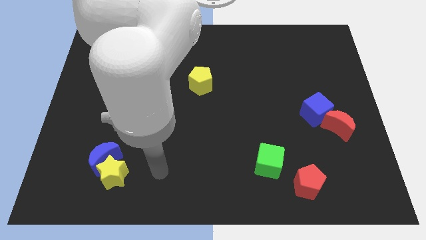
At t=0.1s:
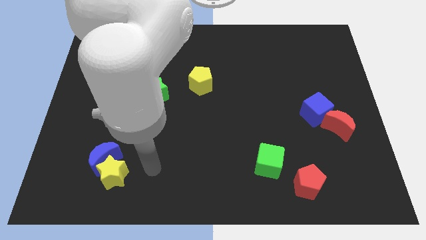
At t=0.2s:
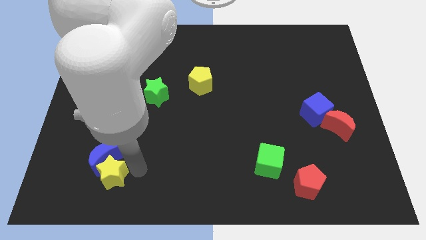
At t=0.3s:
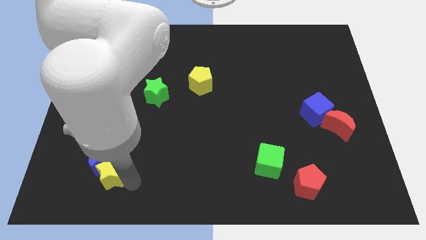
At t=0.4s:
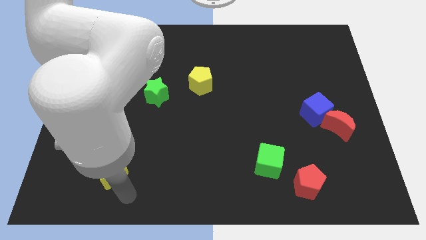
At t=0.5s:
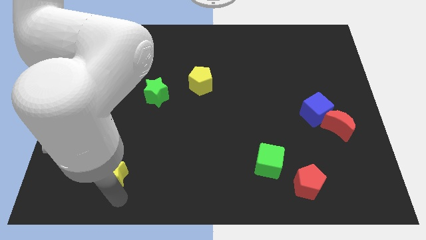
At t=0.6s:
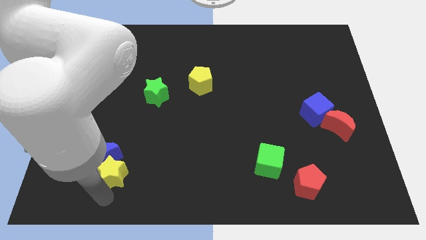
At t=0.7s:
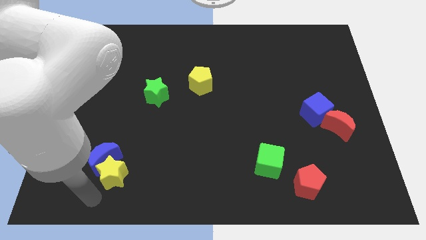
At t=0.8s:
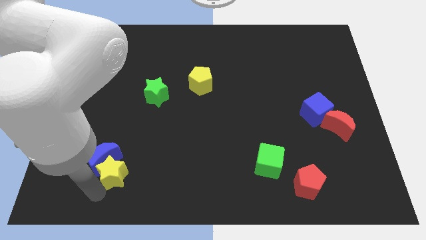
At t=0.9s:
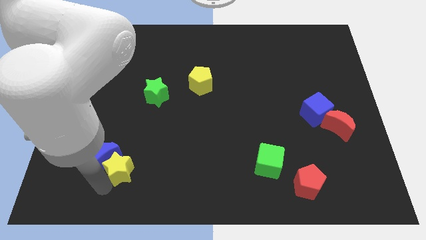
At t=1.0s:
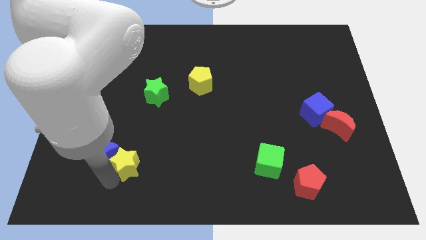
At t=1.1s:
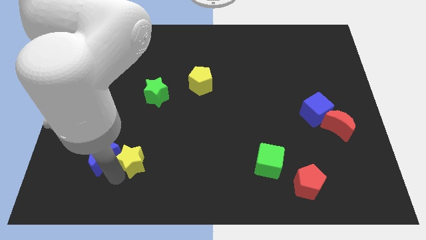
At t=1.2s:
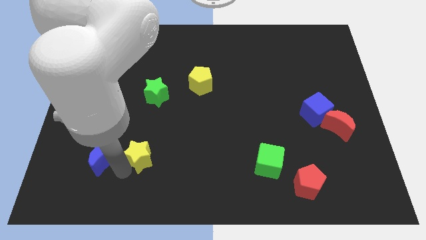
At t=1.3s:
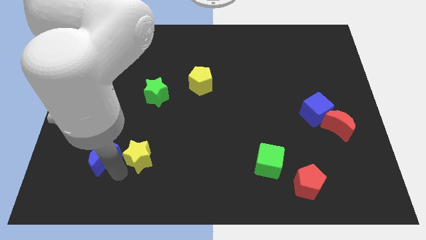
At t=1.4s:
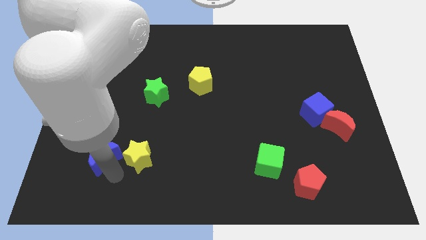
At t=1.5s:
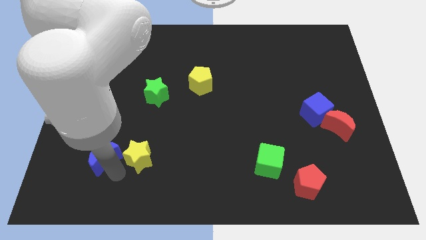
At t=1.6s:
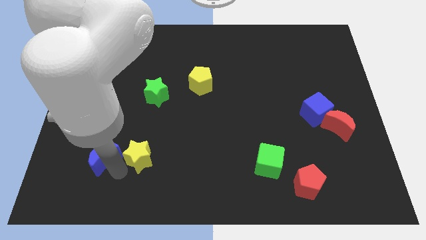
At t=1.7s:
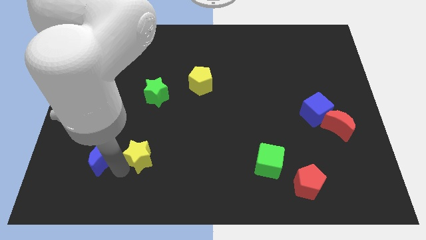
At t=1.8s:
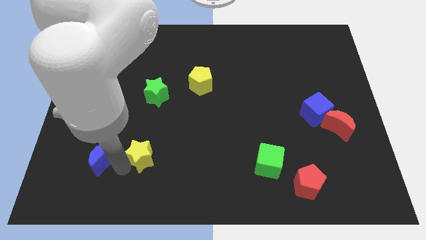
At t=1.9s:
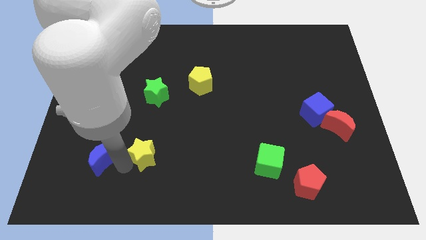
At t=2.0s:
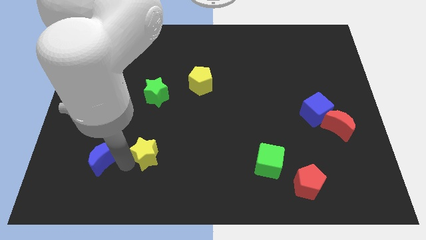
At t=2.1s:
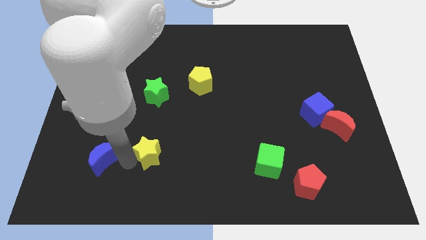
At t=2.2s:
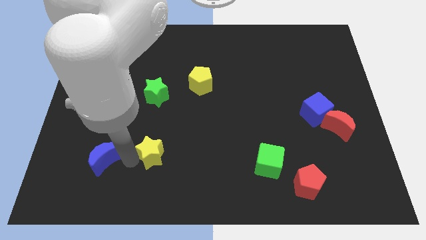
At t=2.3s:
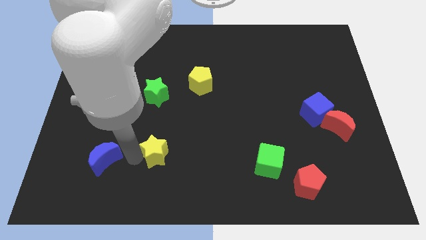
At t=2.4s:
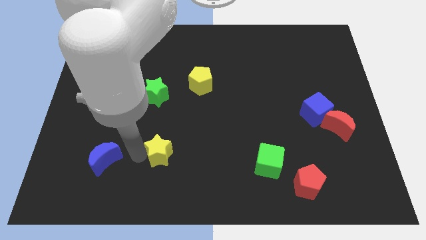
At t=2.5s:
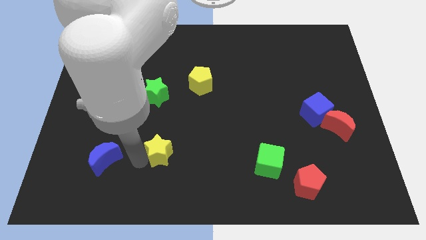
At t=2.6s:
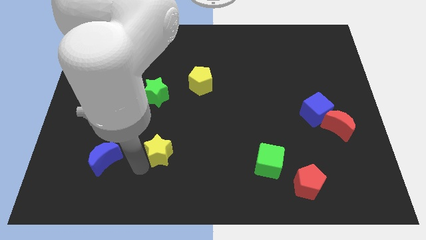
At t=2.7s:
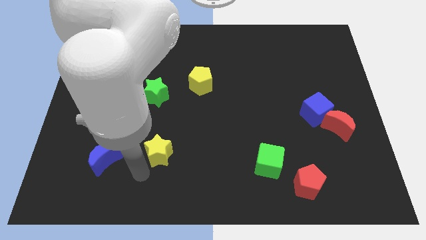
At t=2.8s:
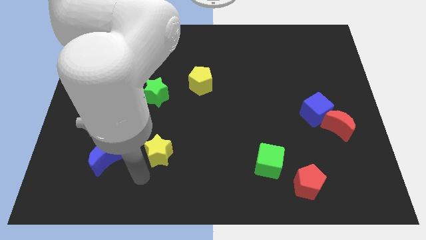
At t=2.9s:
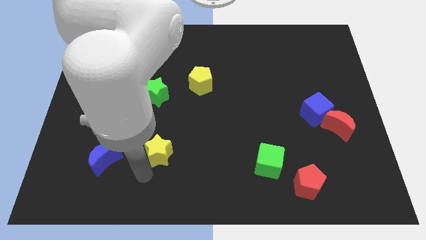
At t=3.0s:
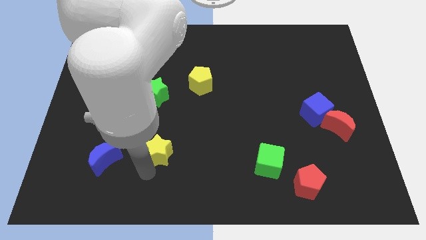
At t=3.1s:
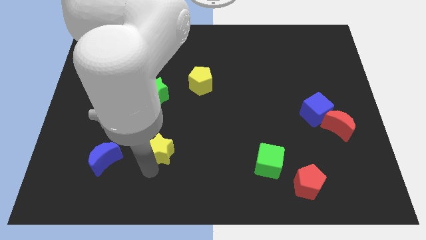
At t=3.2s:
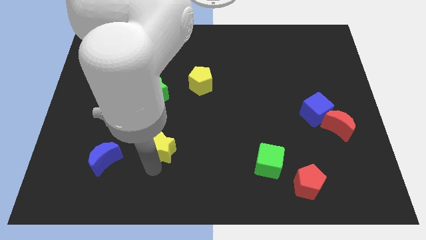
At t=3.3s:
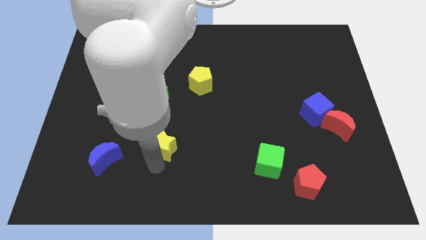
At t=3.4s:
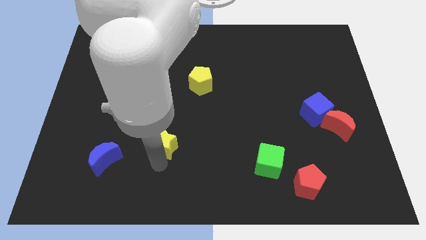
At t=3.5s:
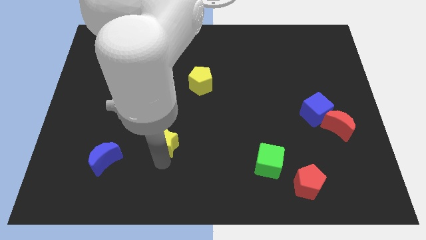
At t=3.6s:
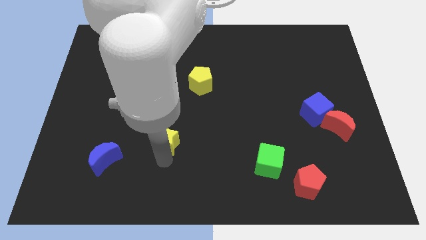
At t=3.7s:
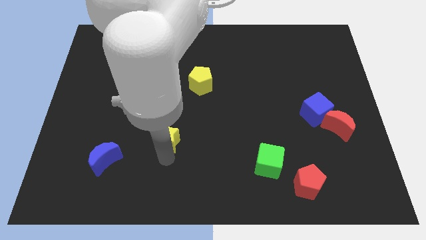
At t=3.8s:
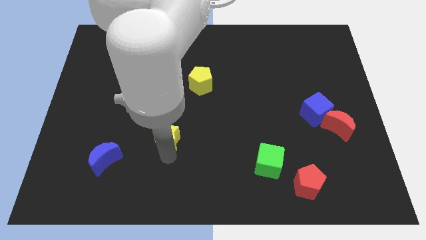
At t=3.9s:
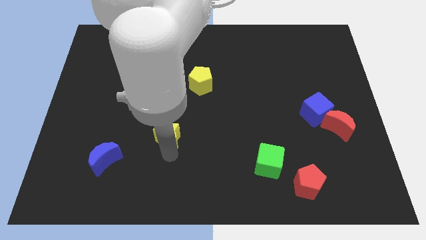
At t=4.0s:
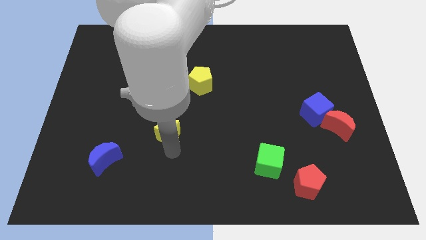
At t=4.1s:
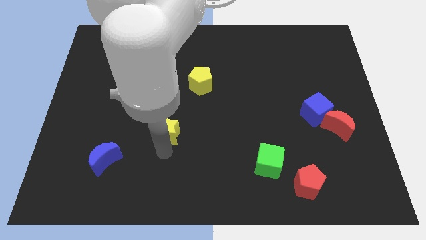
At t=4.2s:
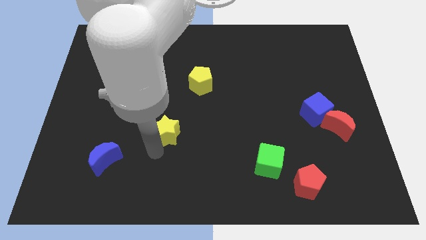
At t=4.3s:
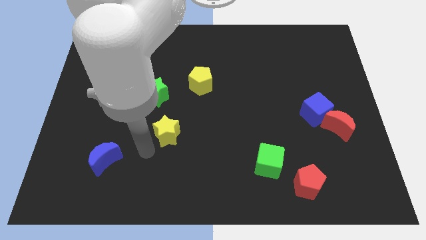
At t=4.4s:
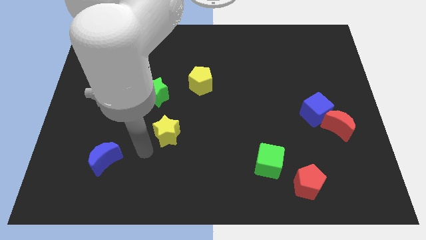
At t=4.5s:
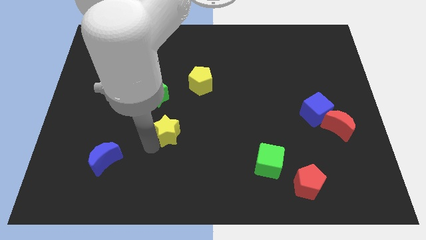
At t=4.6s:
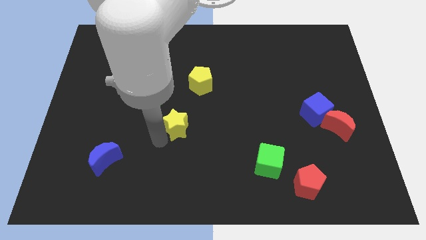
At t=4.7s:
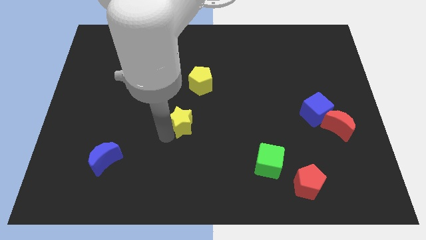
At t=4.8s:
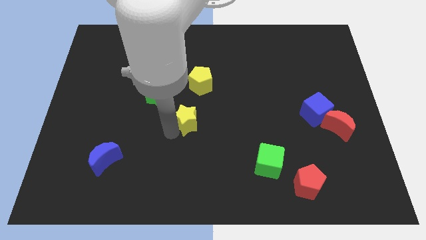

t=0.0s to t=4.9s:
move the yellow star diagonally up and to the right

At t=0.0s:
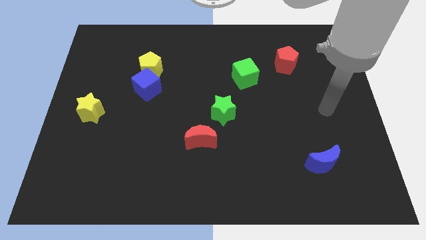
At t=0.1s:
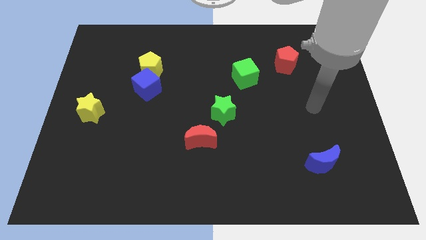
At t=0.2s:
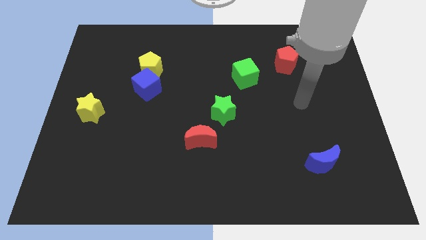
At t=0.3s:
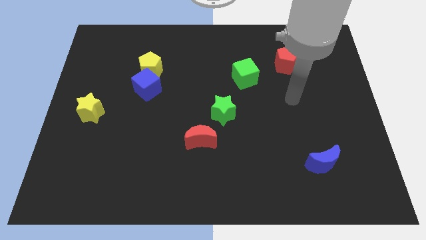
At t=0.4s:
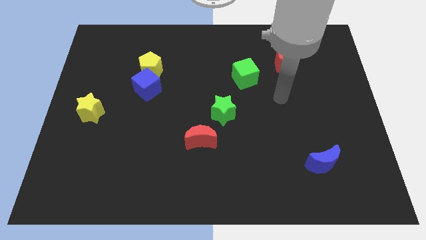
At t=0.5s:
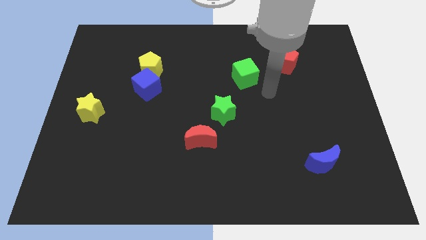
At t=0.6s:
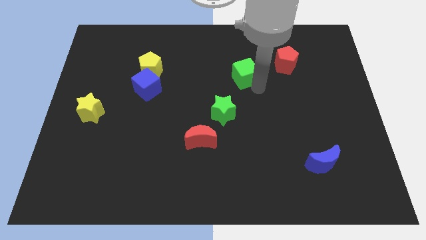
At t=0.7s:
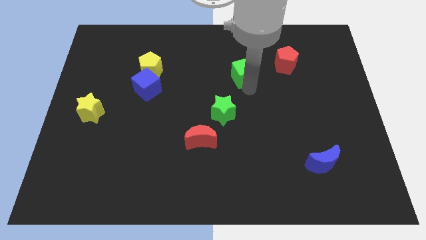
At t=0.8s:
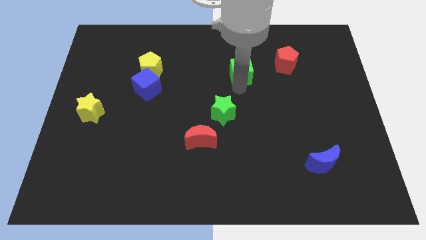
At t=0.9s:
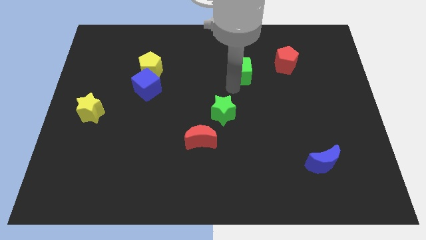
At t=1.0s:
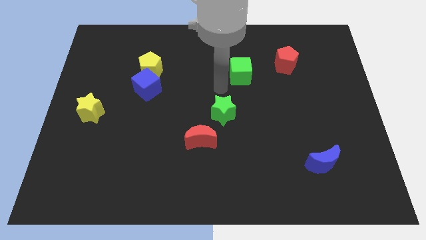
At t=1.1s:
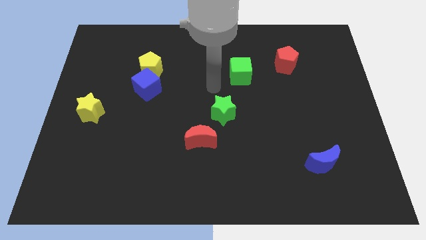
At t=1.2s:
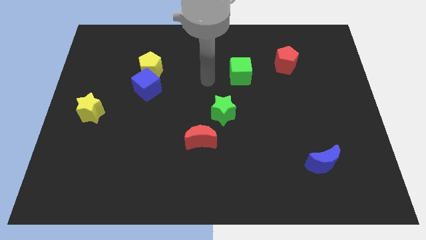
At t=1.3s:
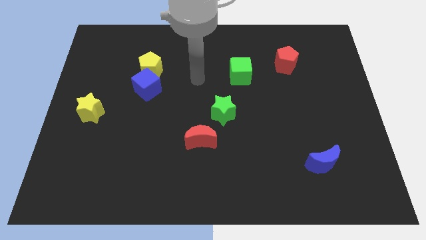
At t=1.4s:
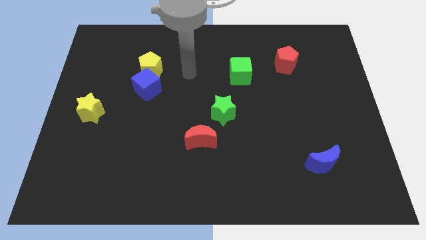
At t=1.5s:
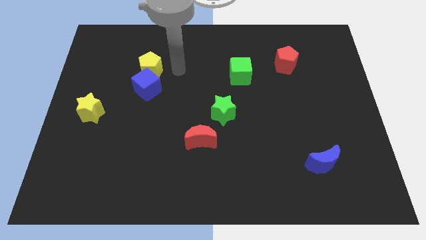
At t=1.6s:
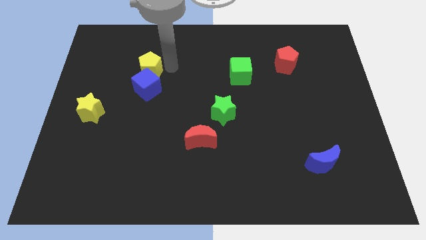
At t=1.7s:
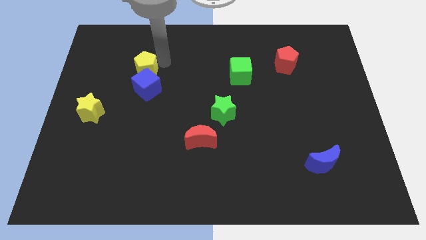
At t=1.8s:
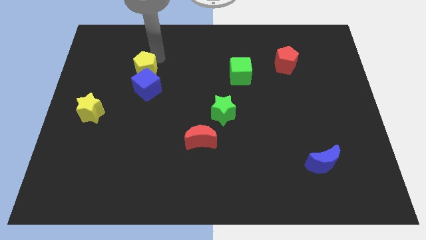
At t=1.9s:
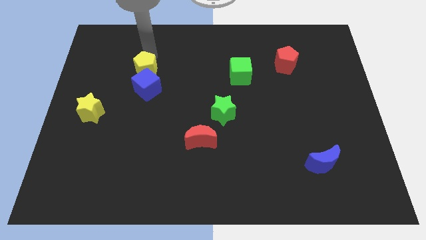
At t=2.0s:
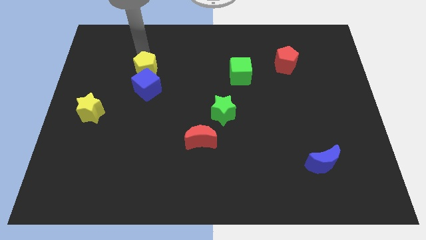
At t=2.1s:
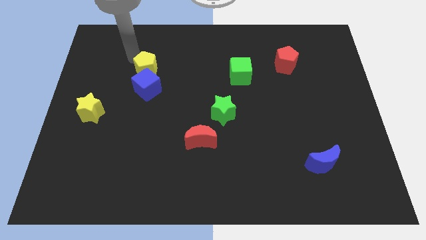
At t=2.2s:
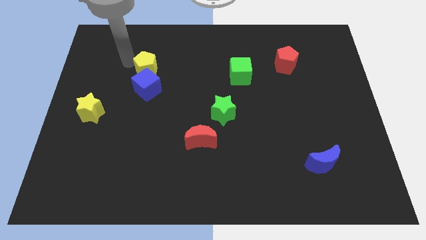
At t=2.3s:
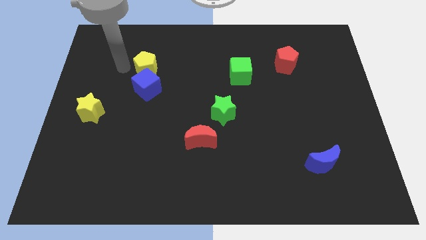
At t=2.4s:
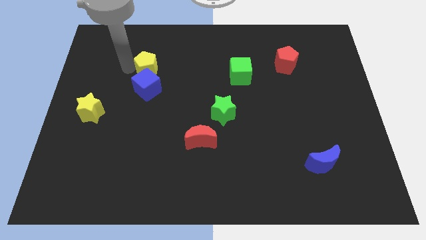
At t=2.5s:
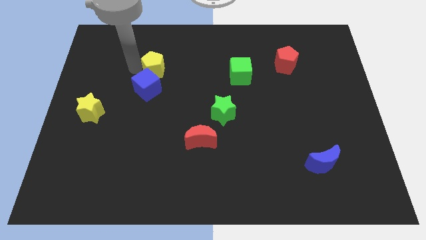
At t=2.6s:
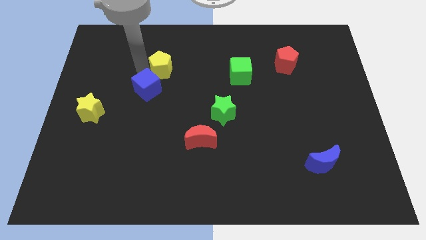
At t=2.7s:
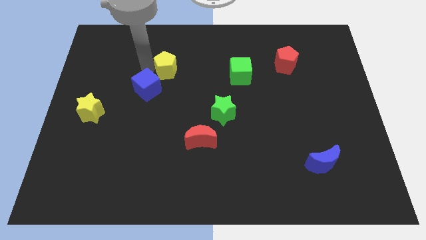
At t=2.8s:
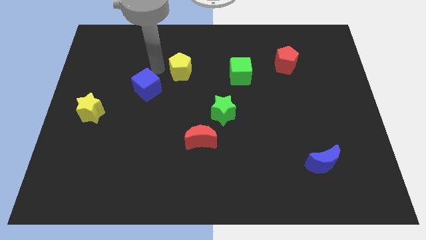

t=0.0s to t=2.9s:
slightly slide the yellow pentagon to the right
